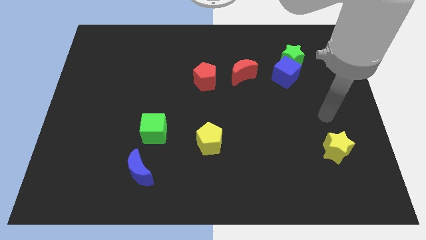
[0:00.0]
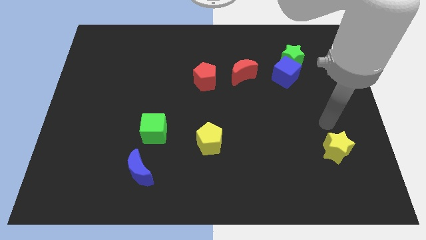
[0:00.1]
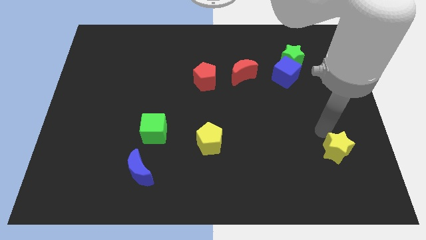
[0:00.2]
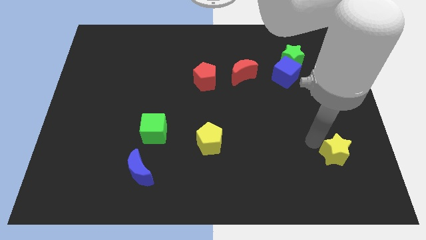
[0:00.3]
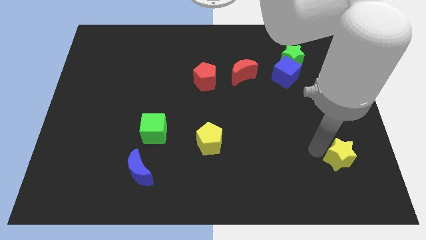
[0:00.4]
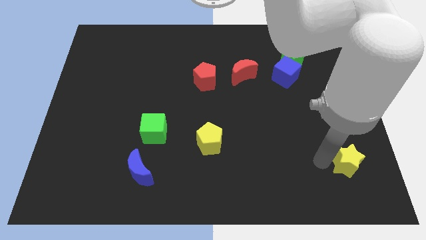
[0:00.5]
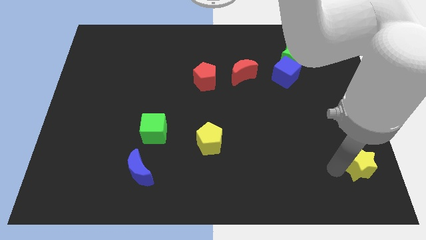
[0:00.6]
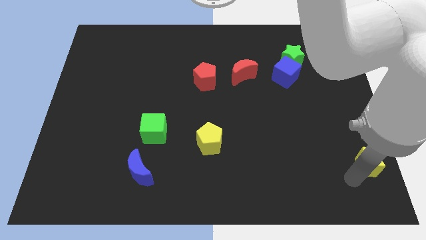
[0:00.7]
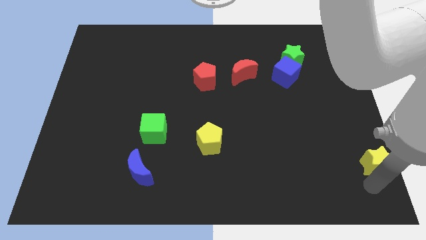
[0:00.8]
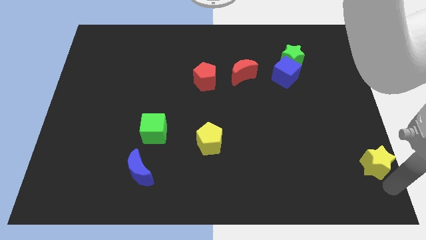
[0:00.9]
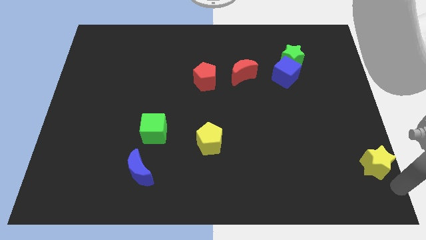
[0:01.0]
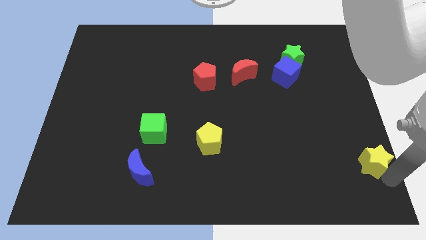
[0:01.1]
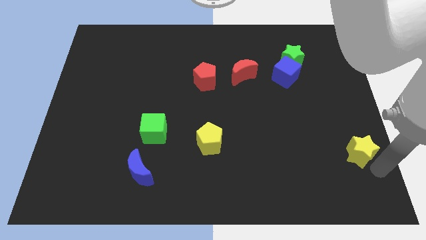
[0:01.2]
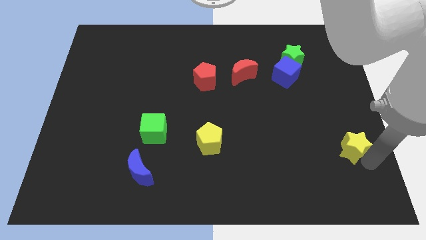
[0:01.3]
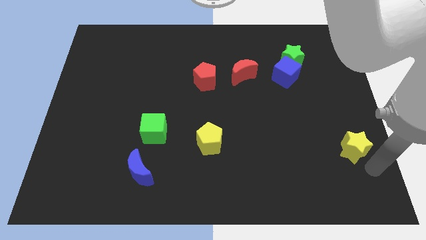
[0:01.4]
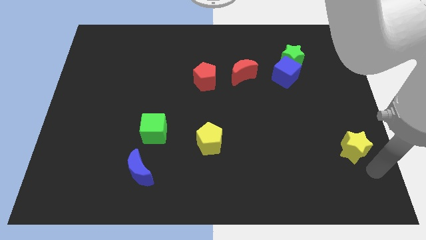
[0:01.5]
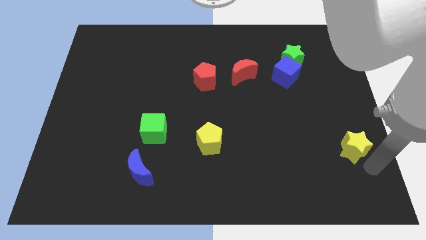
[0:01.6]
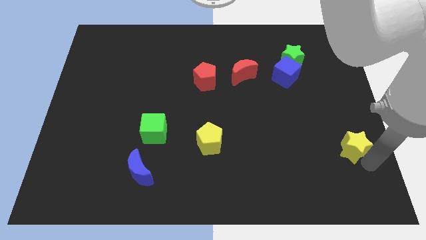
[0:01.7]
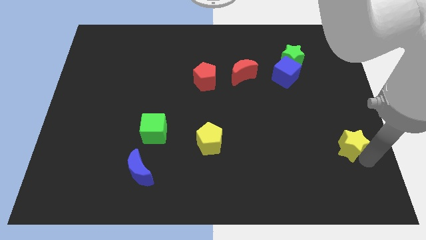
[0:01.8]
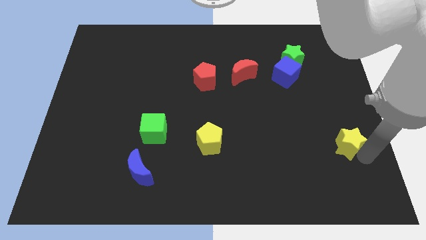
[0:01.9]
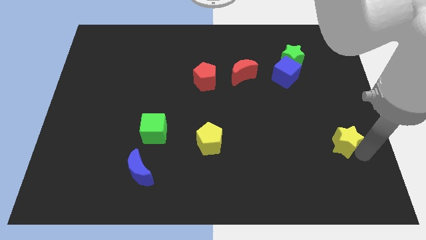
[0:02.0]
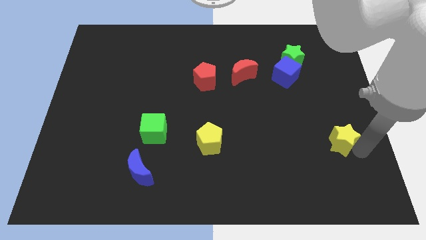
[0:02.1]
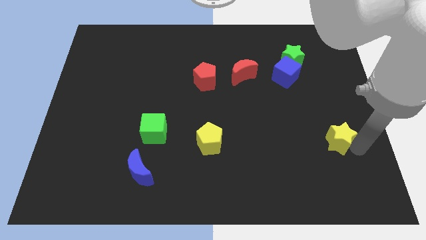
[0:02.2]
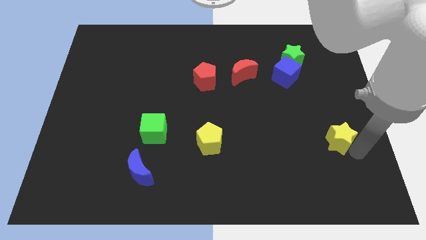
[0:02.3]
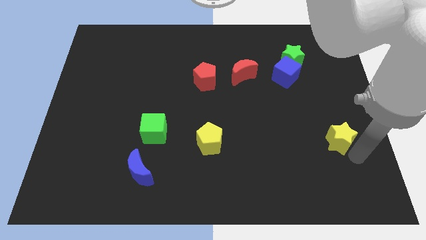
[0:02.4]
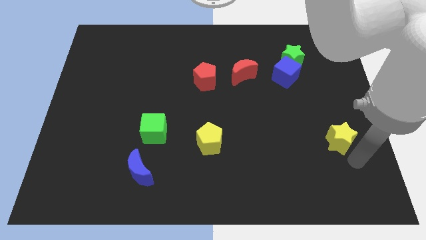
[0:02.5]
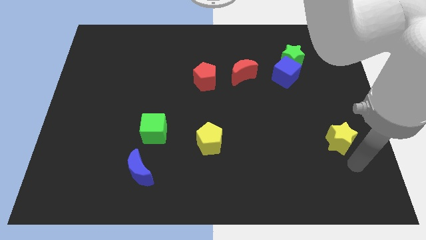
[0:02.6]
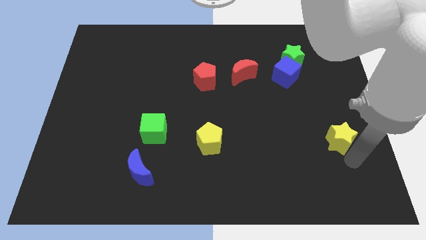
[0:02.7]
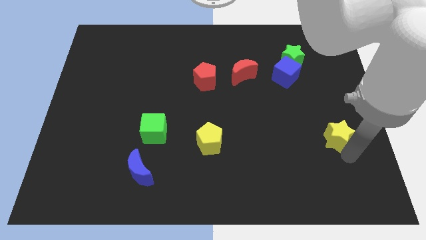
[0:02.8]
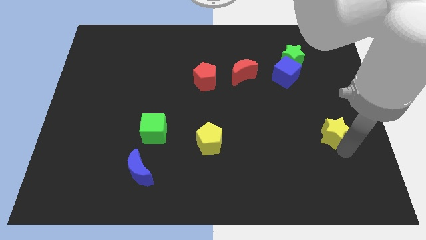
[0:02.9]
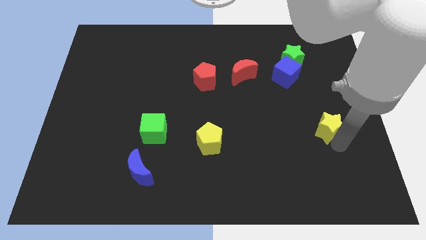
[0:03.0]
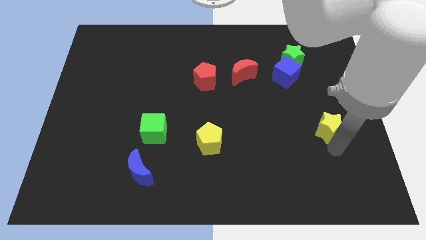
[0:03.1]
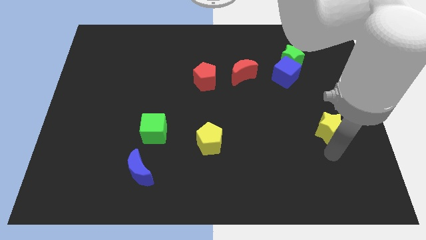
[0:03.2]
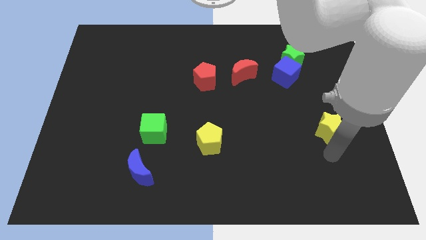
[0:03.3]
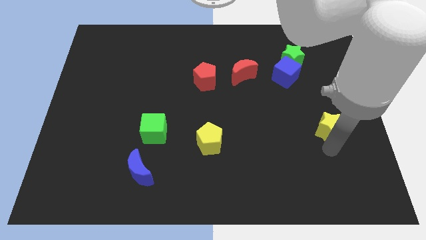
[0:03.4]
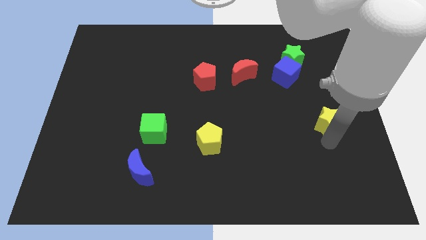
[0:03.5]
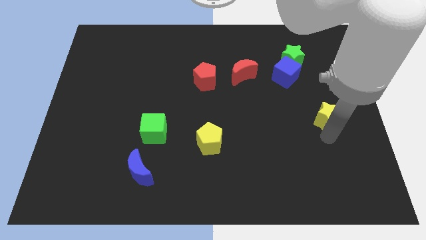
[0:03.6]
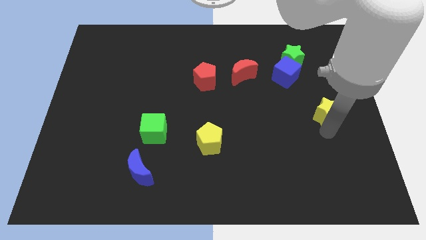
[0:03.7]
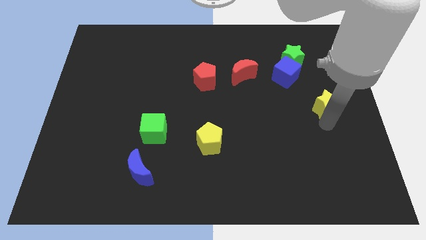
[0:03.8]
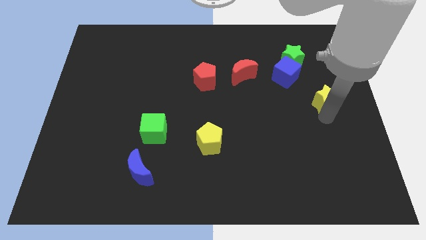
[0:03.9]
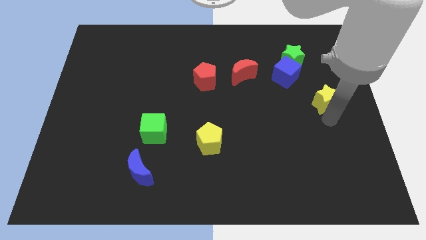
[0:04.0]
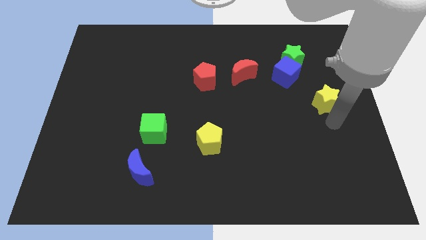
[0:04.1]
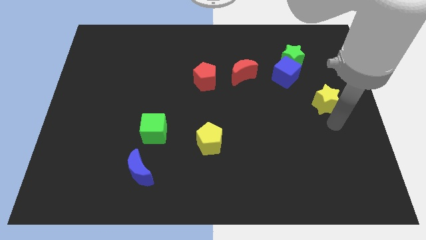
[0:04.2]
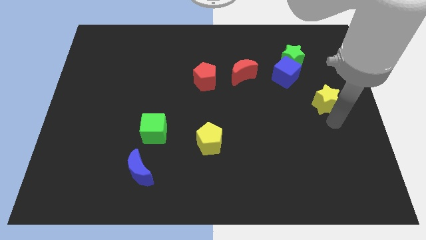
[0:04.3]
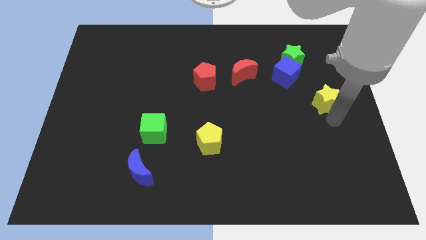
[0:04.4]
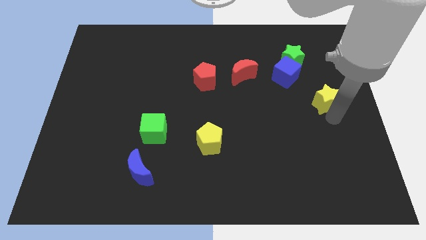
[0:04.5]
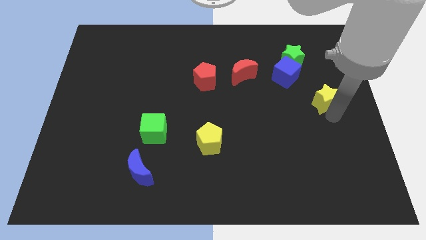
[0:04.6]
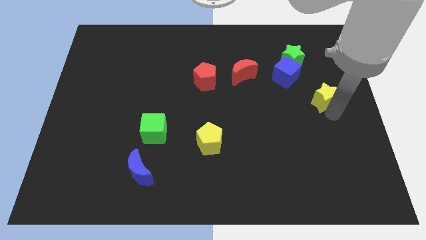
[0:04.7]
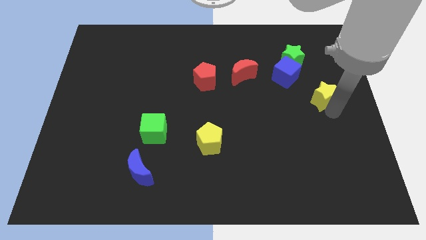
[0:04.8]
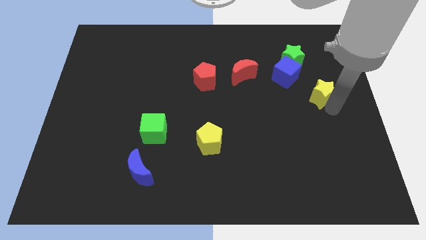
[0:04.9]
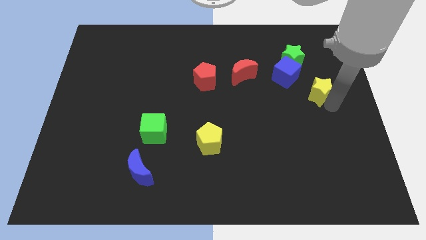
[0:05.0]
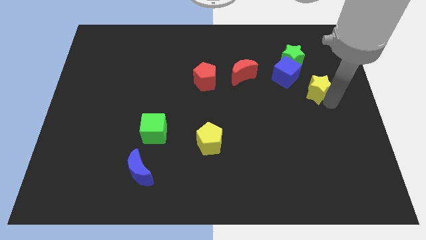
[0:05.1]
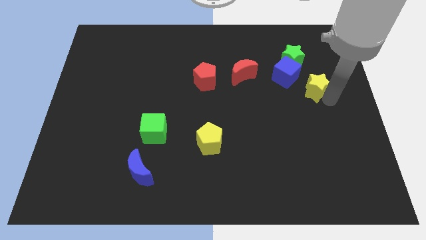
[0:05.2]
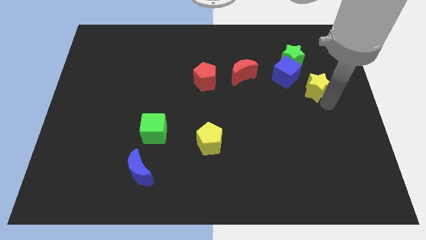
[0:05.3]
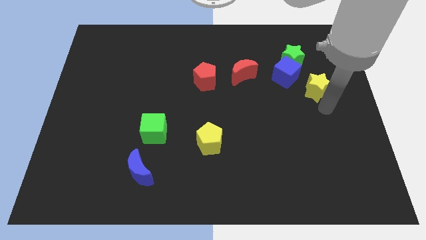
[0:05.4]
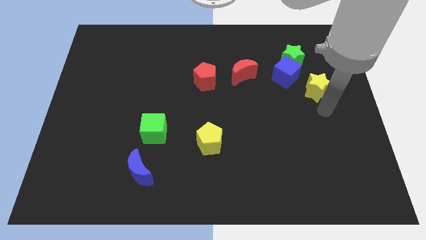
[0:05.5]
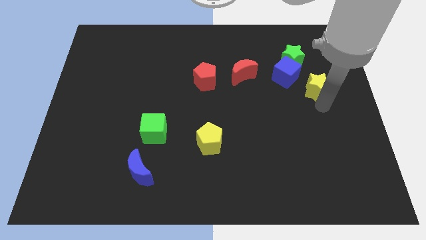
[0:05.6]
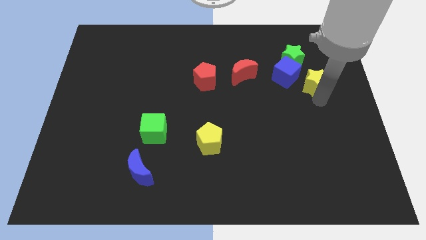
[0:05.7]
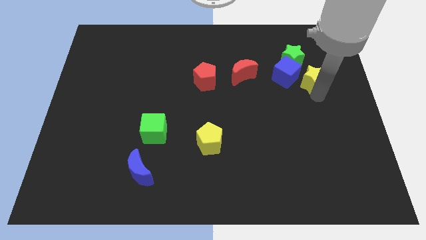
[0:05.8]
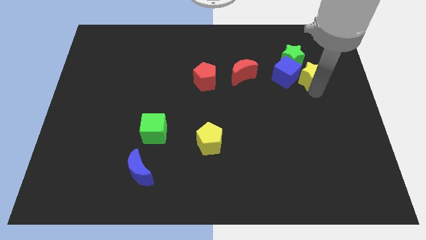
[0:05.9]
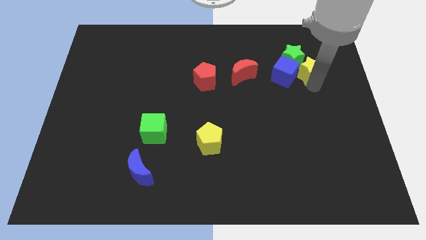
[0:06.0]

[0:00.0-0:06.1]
put the yellow star next to the green star

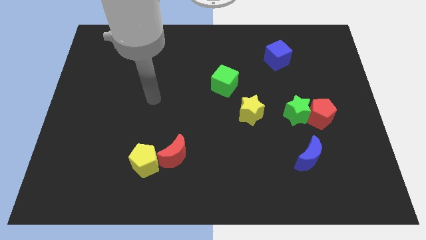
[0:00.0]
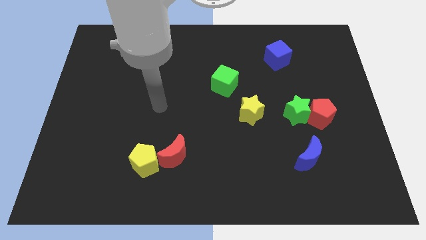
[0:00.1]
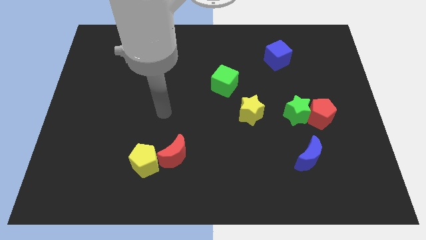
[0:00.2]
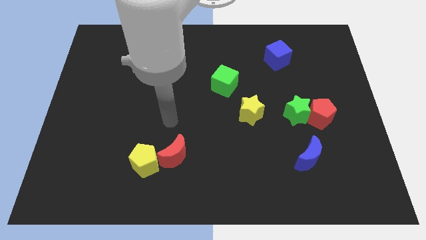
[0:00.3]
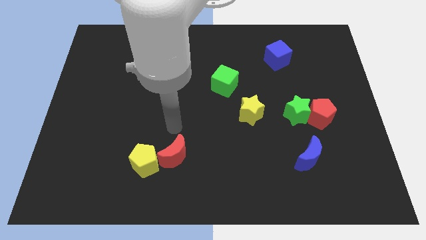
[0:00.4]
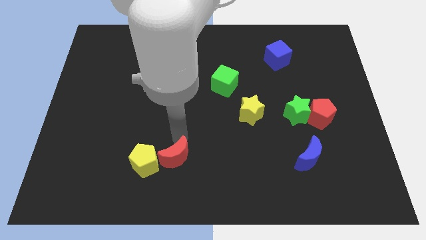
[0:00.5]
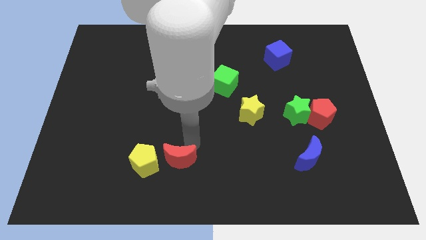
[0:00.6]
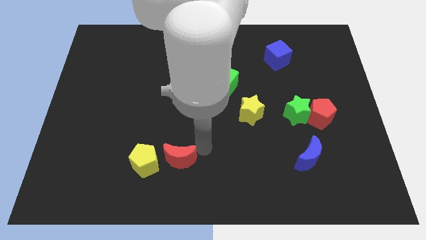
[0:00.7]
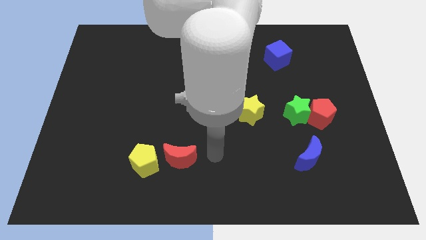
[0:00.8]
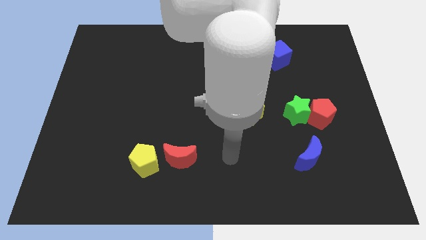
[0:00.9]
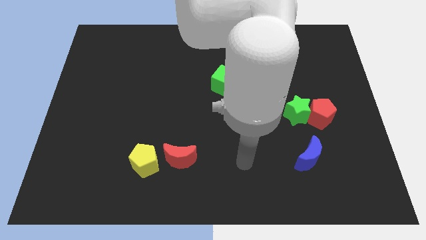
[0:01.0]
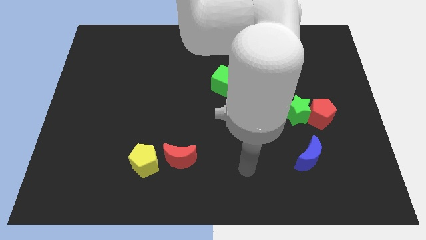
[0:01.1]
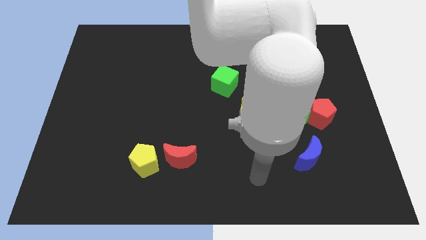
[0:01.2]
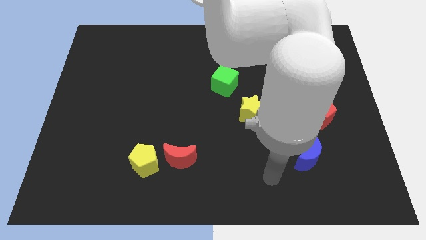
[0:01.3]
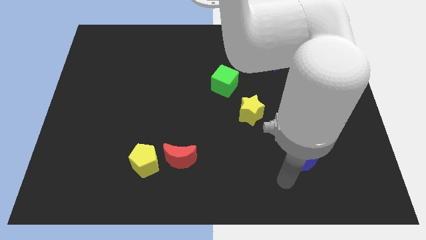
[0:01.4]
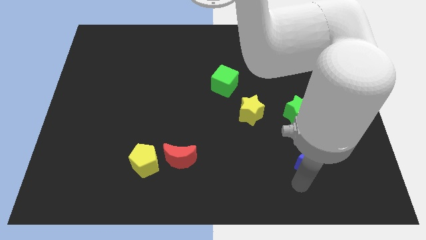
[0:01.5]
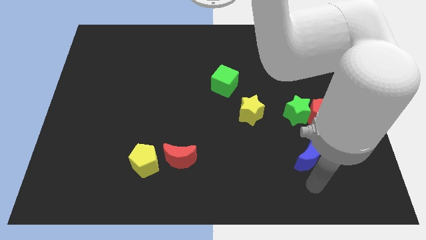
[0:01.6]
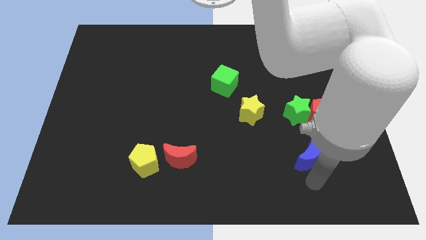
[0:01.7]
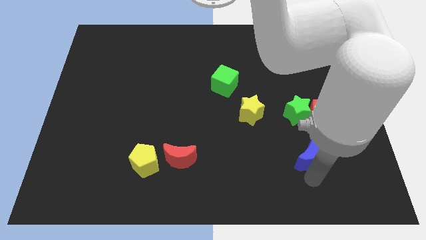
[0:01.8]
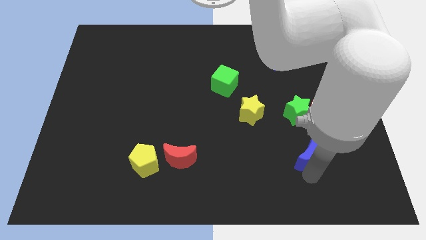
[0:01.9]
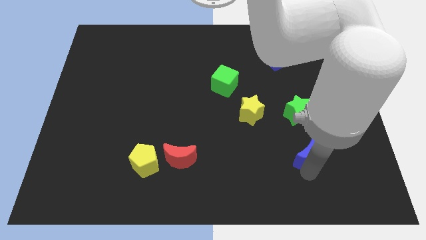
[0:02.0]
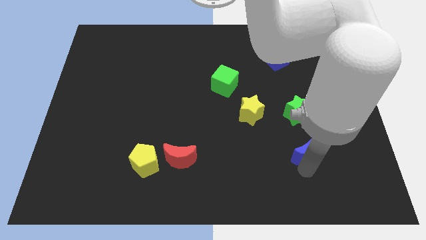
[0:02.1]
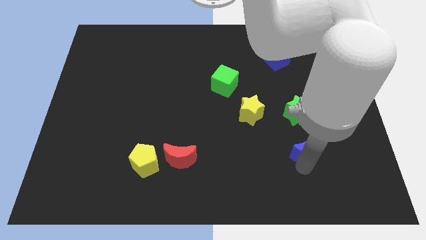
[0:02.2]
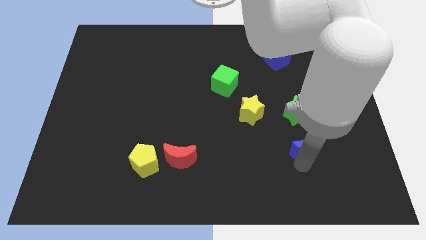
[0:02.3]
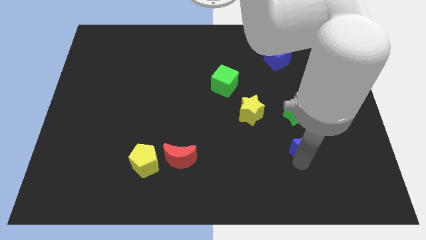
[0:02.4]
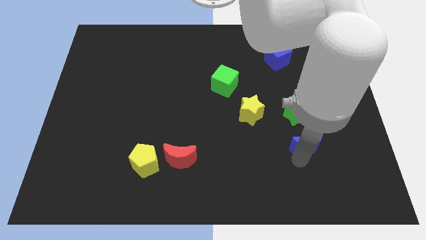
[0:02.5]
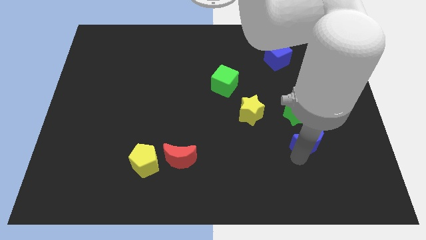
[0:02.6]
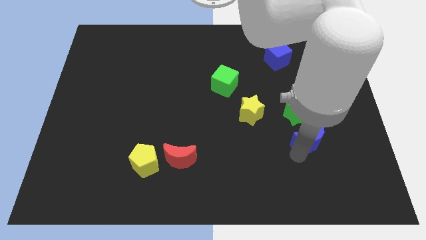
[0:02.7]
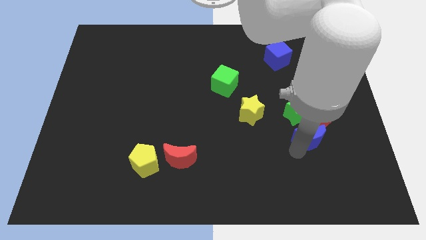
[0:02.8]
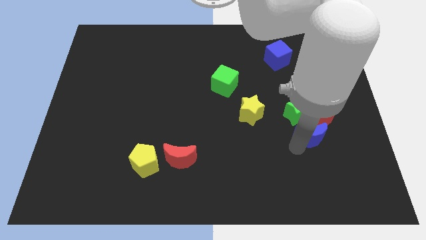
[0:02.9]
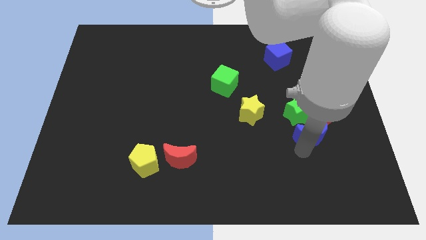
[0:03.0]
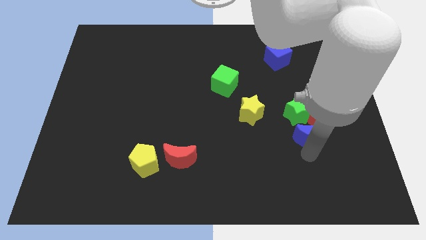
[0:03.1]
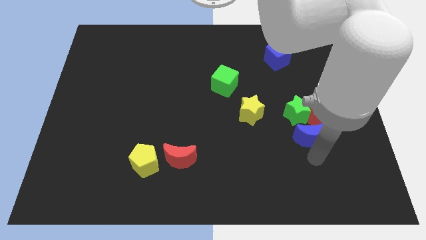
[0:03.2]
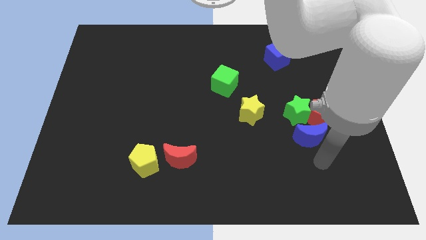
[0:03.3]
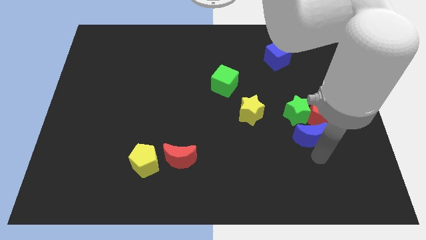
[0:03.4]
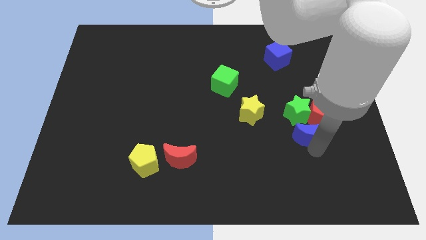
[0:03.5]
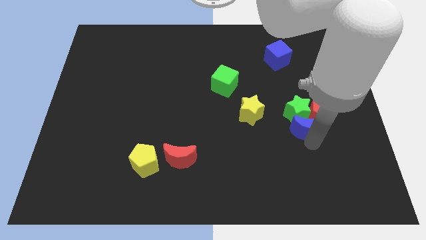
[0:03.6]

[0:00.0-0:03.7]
push the blue moon to the green star
